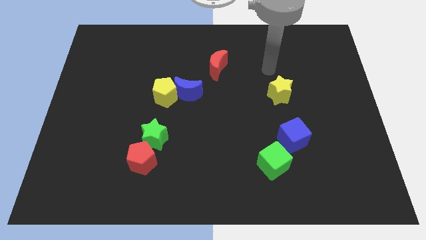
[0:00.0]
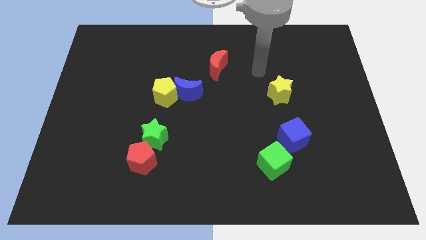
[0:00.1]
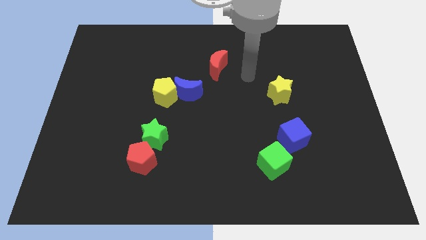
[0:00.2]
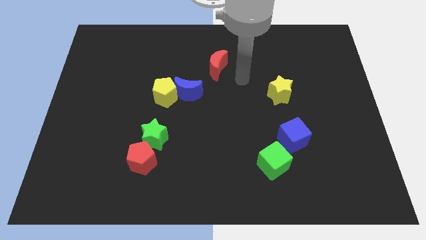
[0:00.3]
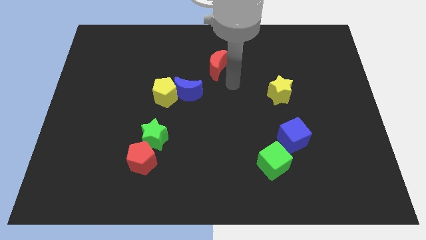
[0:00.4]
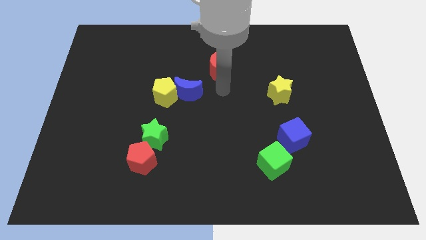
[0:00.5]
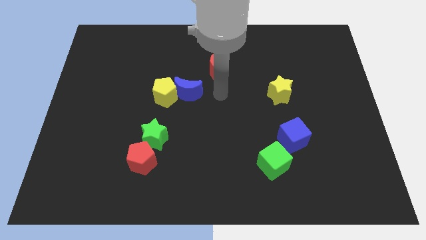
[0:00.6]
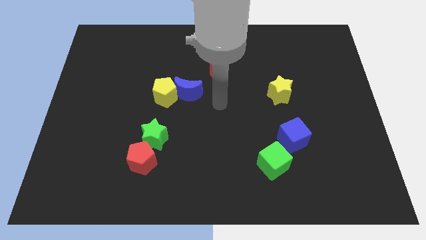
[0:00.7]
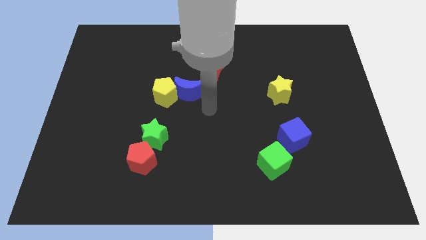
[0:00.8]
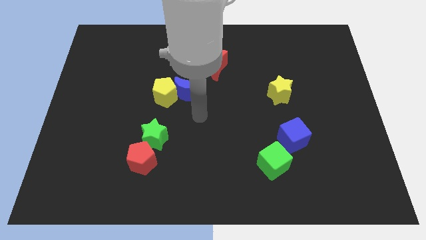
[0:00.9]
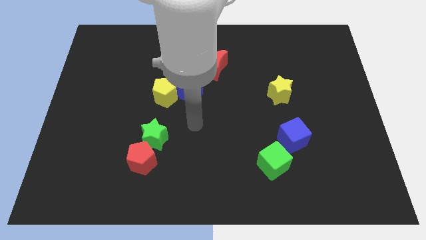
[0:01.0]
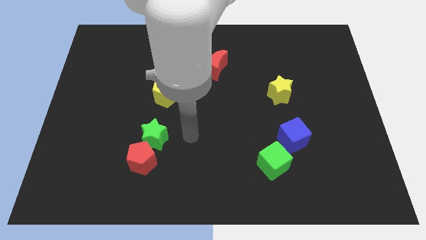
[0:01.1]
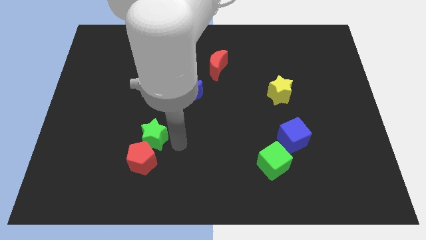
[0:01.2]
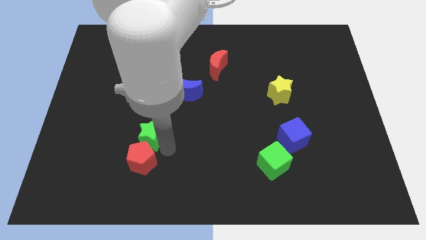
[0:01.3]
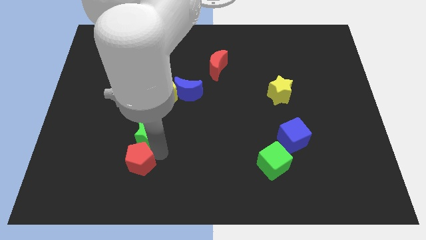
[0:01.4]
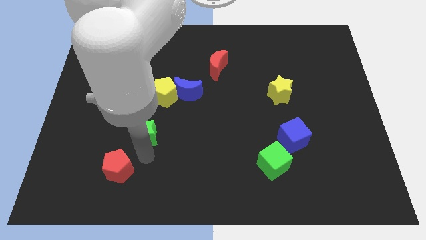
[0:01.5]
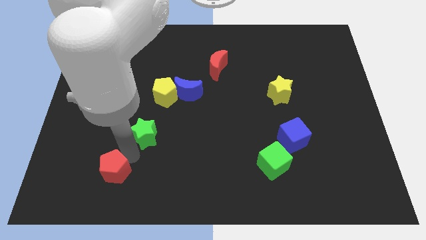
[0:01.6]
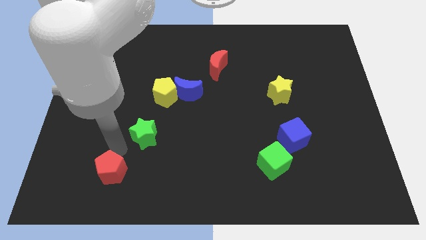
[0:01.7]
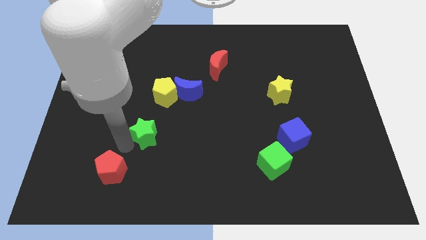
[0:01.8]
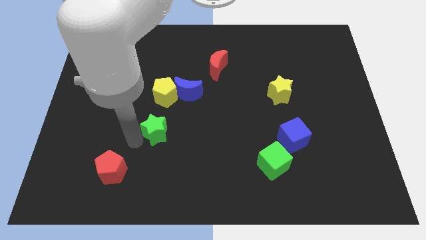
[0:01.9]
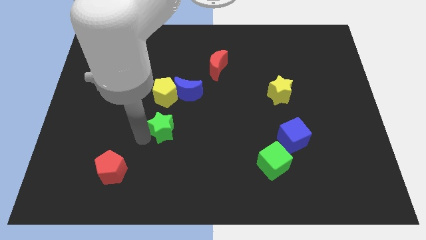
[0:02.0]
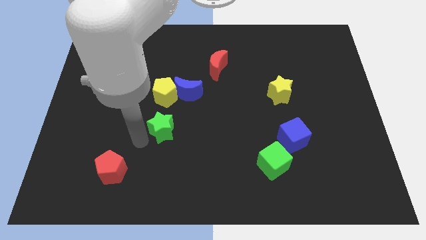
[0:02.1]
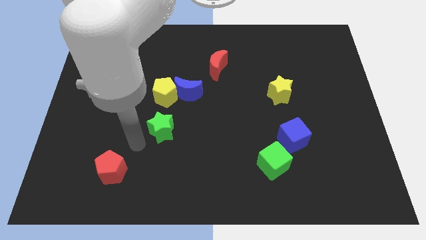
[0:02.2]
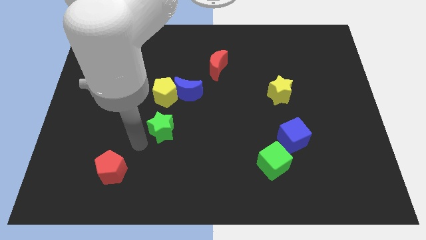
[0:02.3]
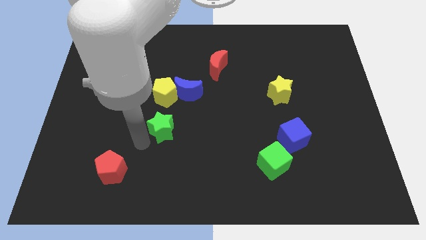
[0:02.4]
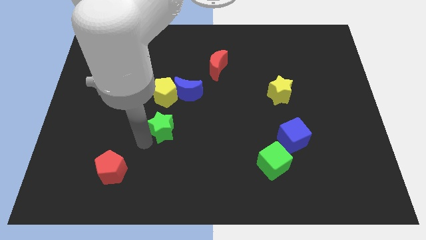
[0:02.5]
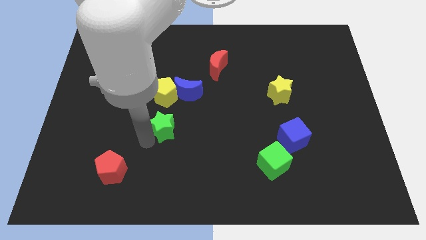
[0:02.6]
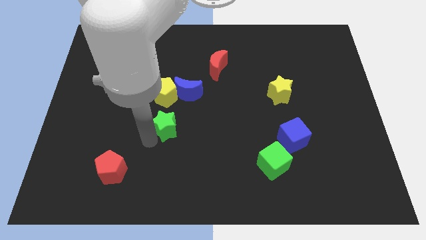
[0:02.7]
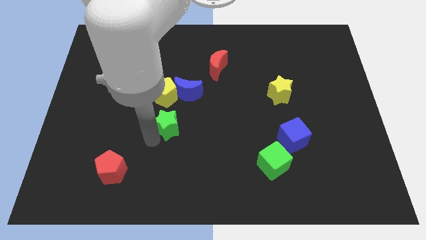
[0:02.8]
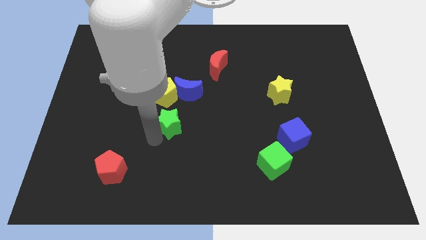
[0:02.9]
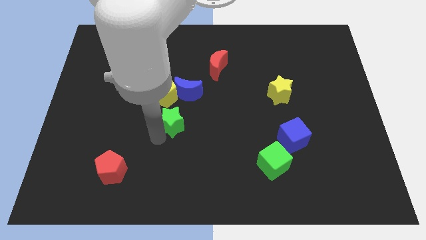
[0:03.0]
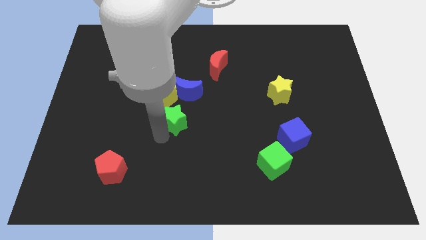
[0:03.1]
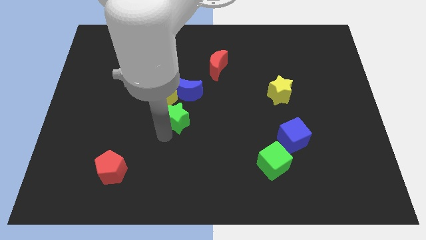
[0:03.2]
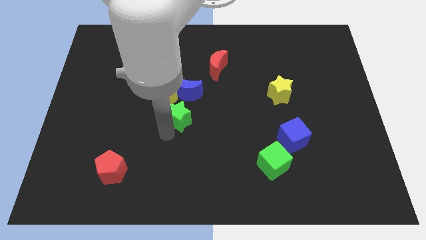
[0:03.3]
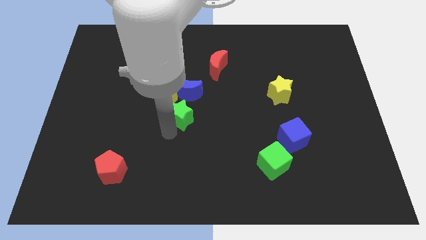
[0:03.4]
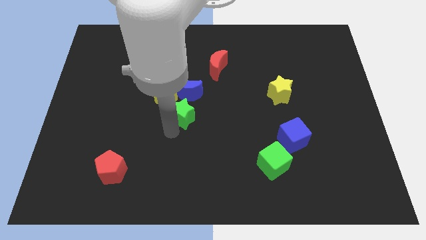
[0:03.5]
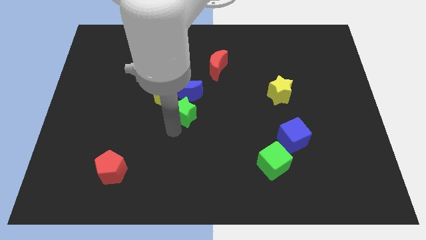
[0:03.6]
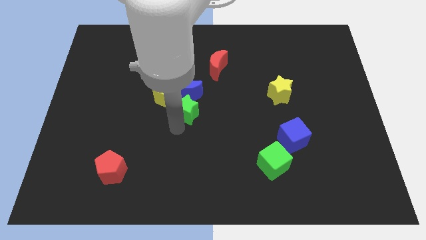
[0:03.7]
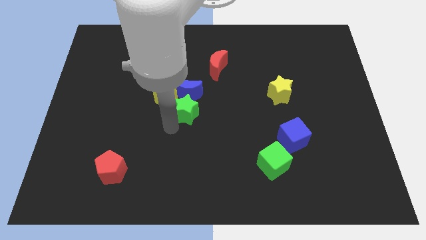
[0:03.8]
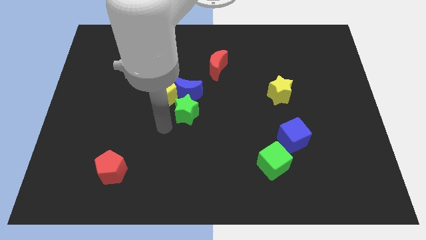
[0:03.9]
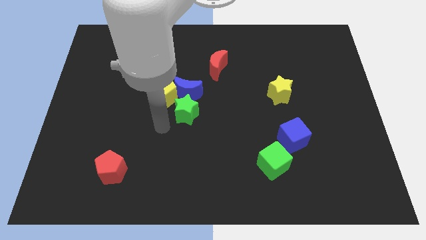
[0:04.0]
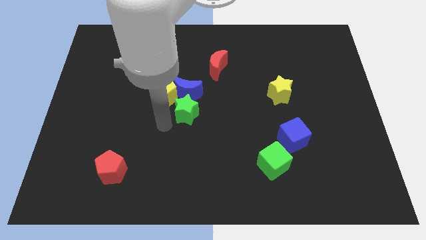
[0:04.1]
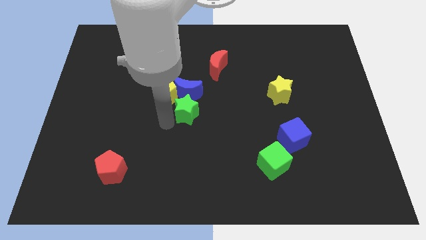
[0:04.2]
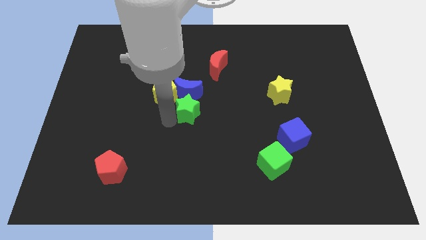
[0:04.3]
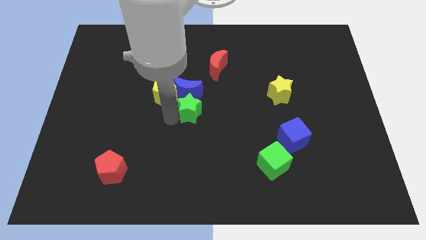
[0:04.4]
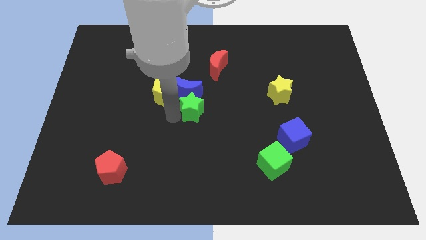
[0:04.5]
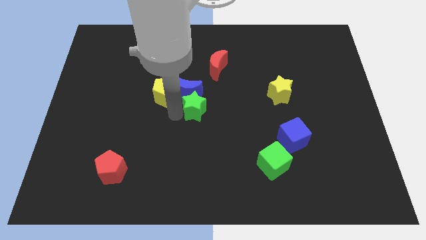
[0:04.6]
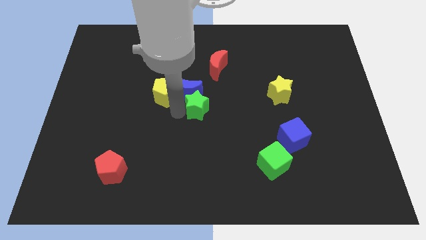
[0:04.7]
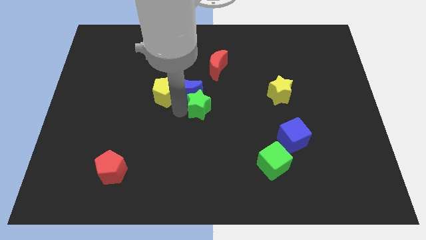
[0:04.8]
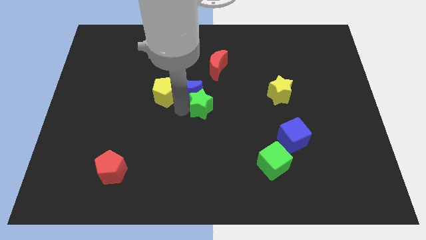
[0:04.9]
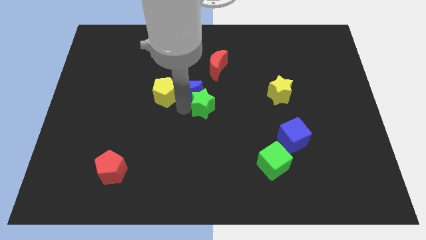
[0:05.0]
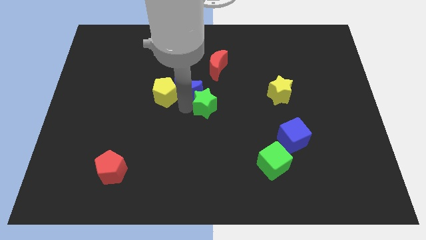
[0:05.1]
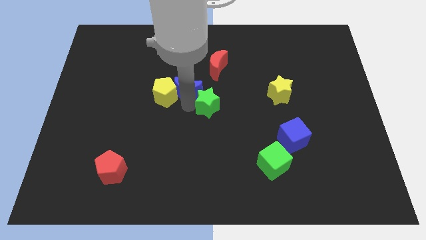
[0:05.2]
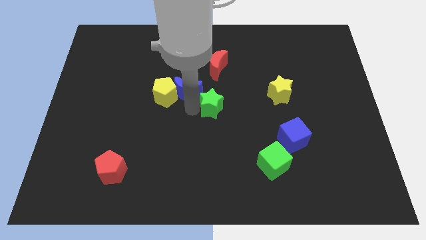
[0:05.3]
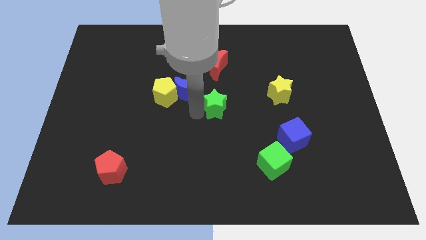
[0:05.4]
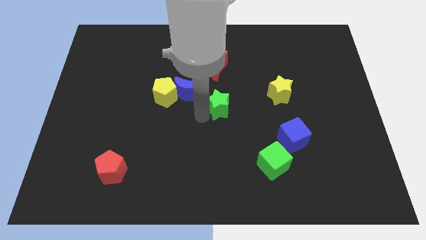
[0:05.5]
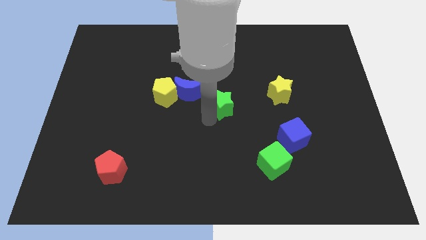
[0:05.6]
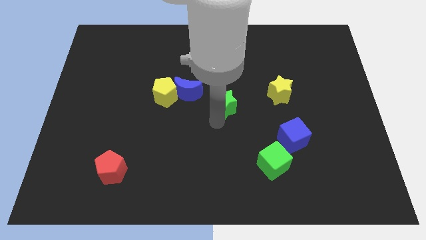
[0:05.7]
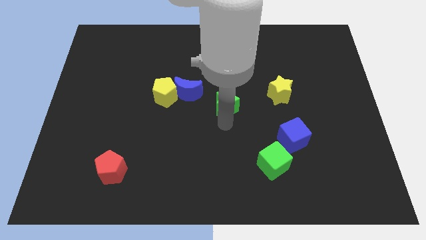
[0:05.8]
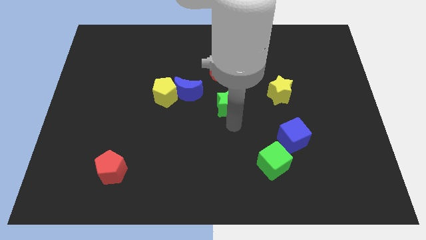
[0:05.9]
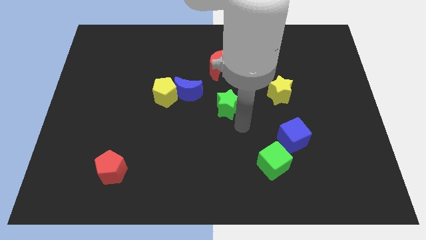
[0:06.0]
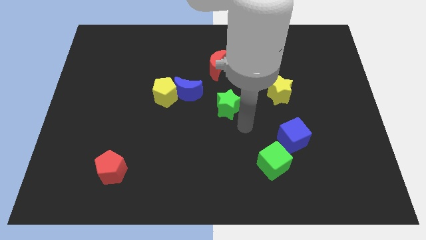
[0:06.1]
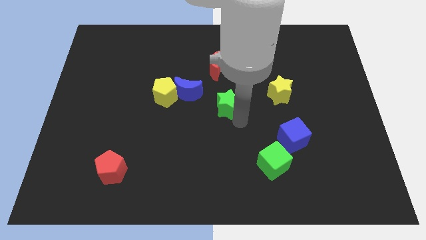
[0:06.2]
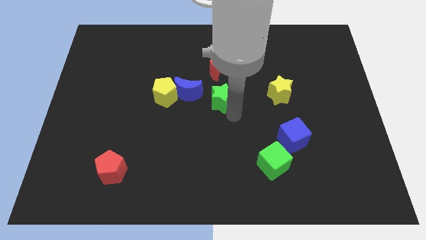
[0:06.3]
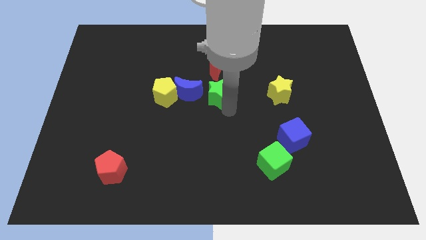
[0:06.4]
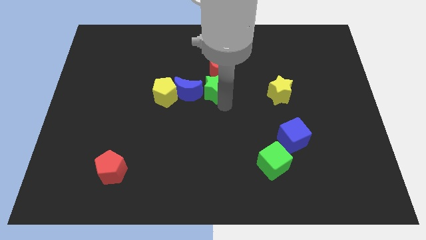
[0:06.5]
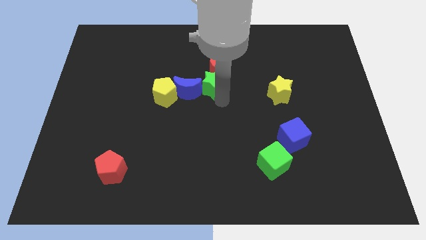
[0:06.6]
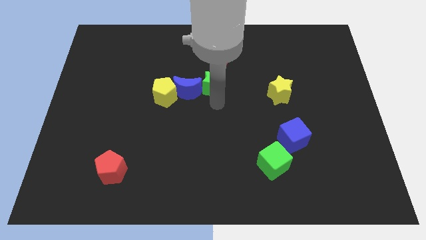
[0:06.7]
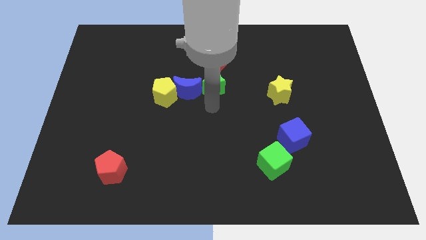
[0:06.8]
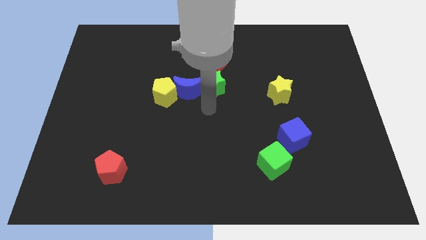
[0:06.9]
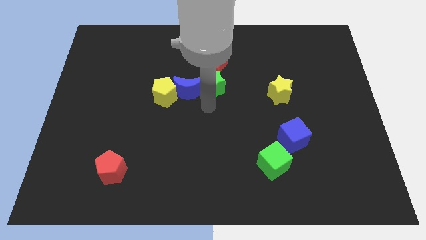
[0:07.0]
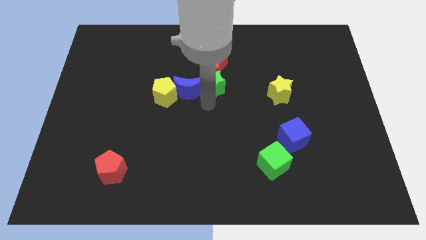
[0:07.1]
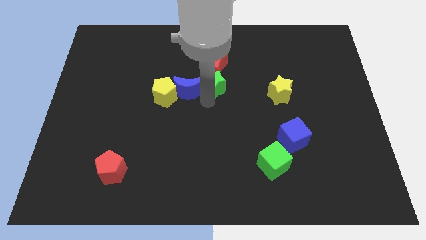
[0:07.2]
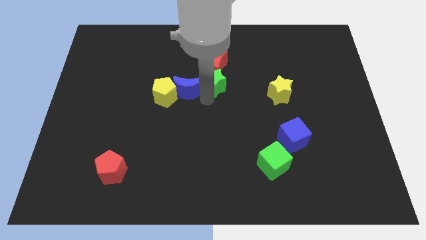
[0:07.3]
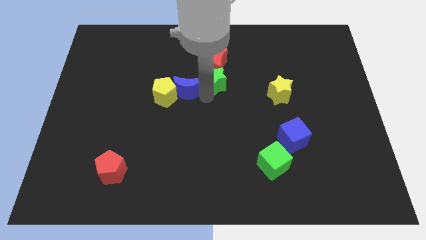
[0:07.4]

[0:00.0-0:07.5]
push the green star next to the red moon
